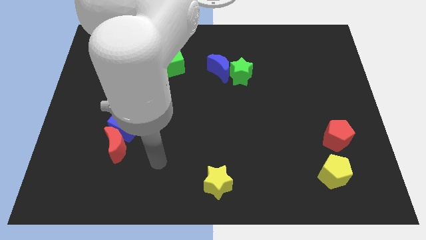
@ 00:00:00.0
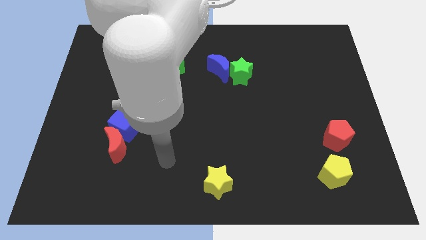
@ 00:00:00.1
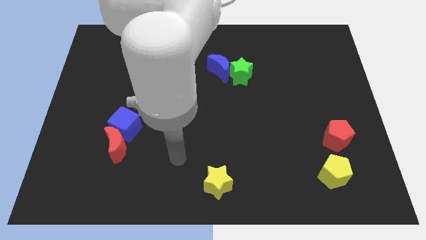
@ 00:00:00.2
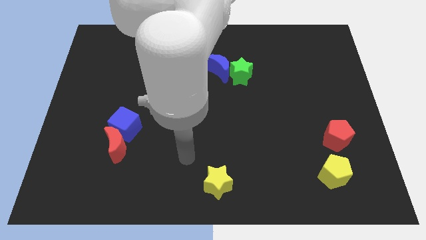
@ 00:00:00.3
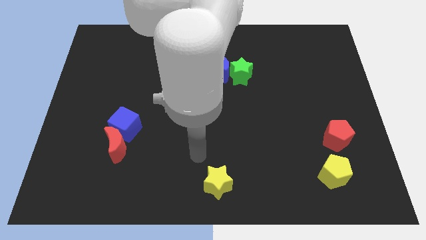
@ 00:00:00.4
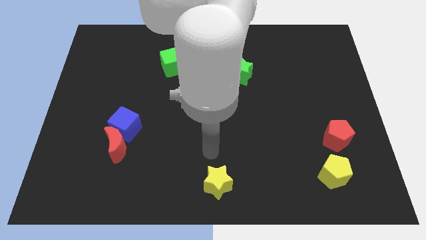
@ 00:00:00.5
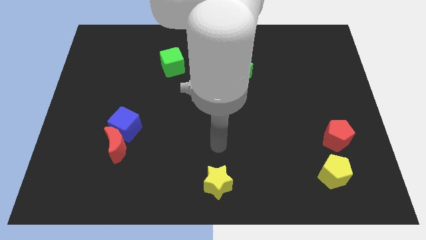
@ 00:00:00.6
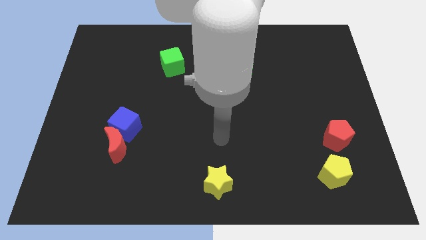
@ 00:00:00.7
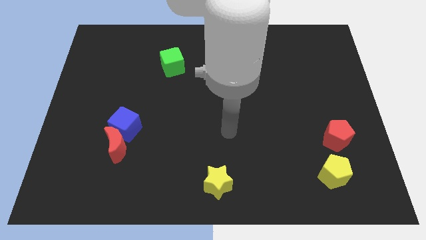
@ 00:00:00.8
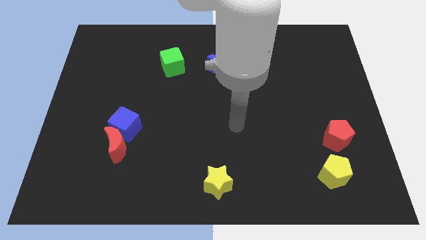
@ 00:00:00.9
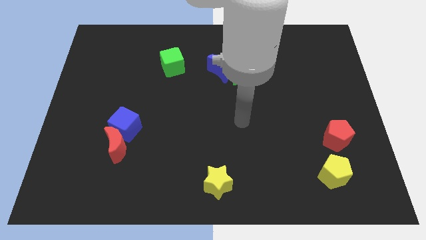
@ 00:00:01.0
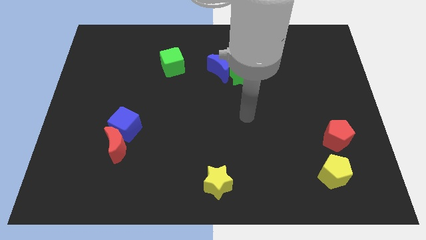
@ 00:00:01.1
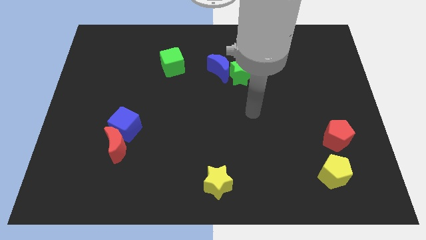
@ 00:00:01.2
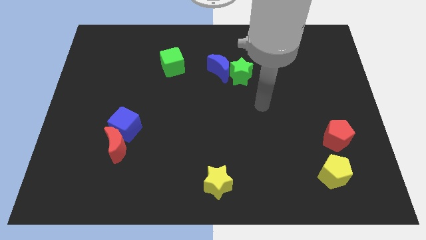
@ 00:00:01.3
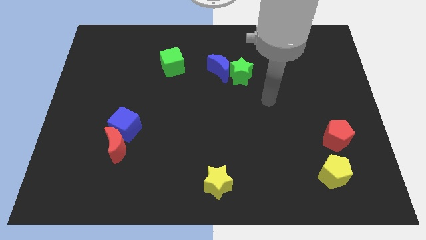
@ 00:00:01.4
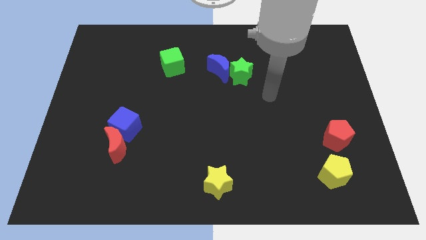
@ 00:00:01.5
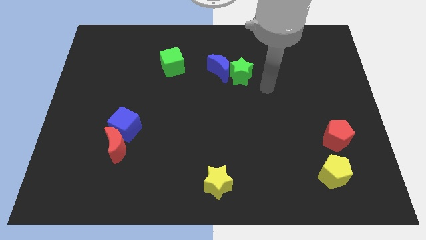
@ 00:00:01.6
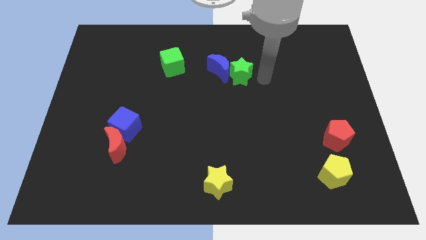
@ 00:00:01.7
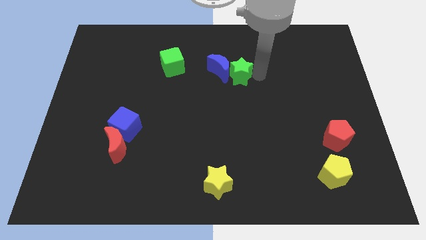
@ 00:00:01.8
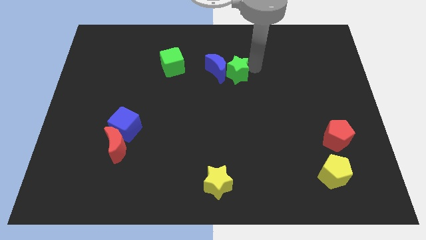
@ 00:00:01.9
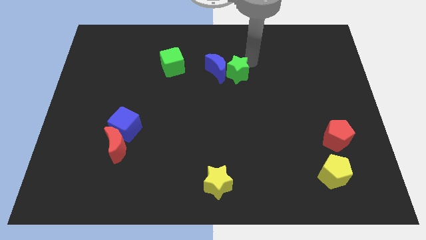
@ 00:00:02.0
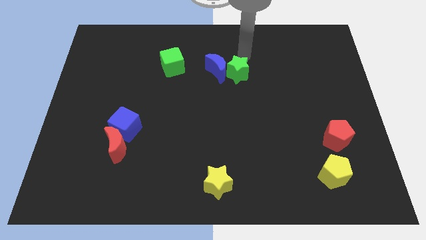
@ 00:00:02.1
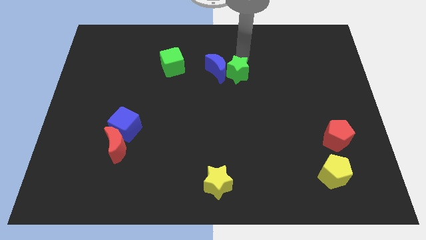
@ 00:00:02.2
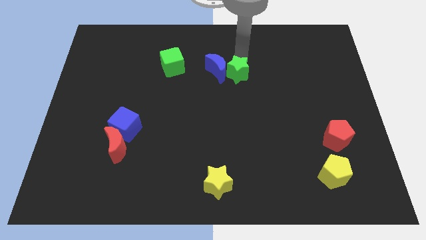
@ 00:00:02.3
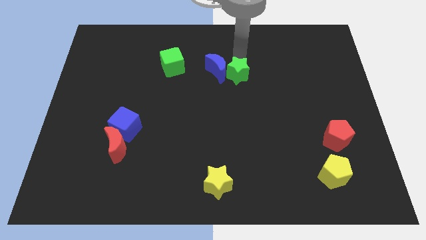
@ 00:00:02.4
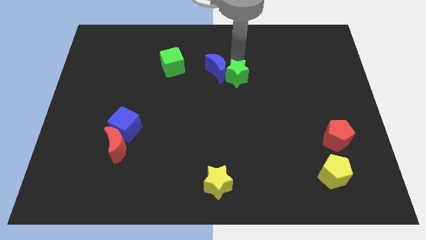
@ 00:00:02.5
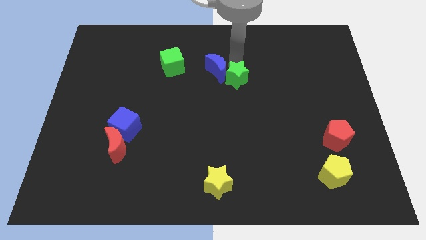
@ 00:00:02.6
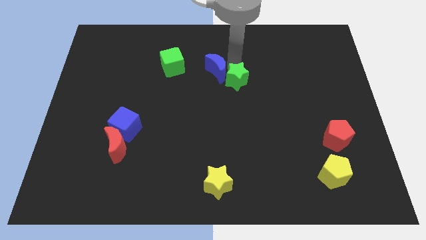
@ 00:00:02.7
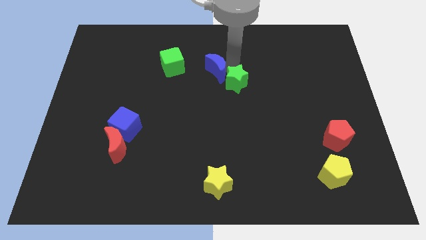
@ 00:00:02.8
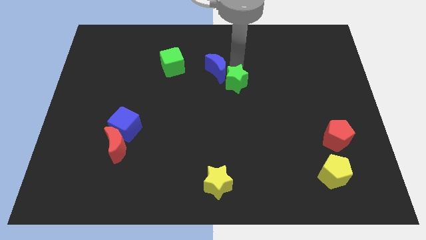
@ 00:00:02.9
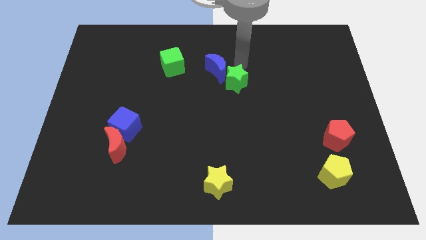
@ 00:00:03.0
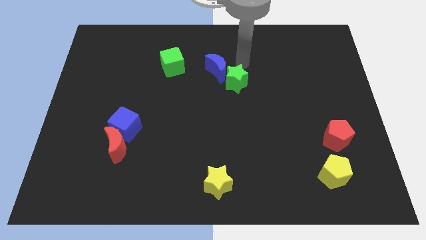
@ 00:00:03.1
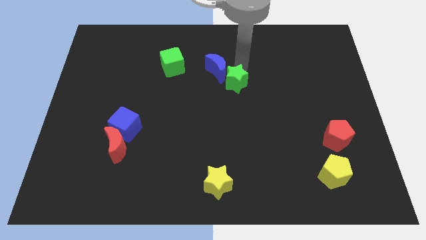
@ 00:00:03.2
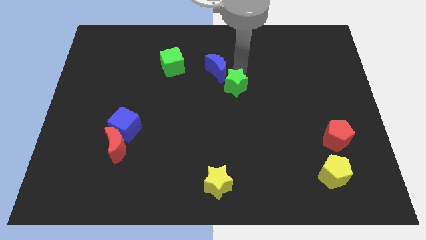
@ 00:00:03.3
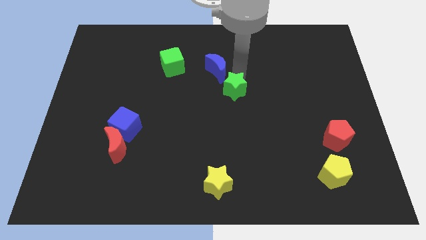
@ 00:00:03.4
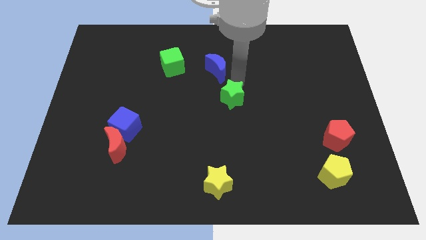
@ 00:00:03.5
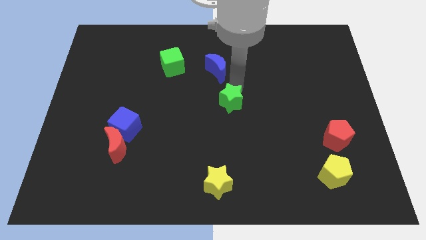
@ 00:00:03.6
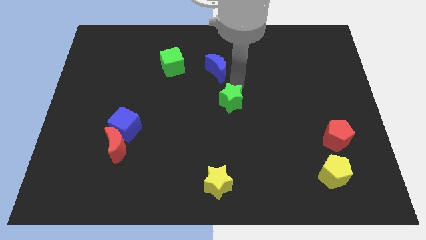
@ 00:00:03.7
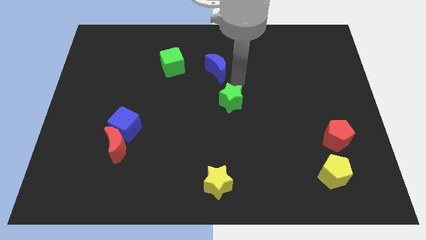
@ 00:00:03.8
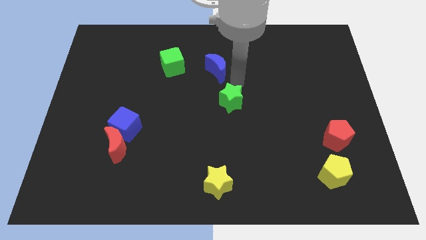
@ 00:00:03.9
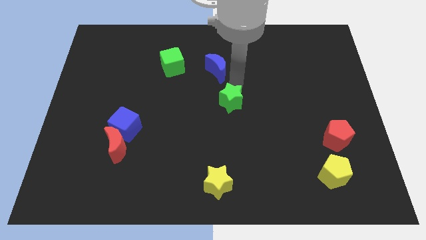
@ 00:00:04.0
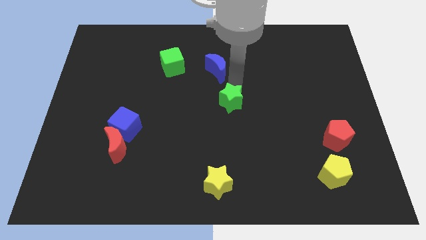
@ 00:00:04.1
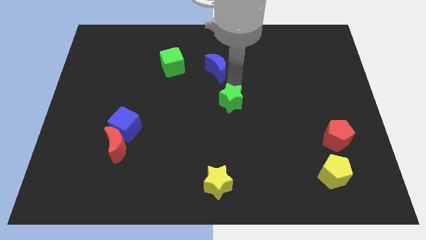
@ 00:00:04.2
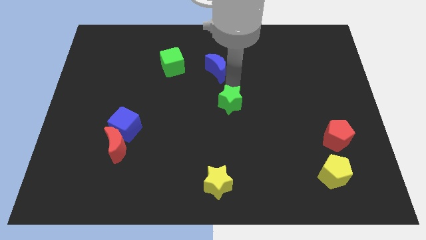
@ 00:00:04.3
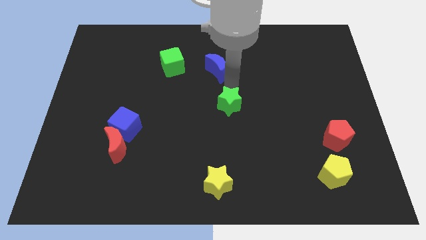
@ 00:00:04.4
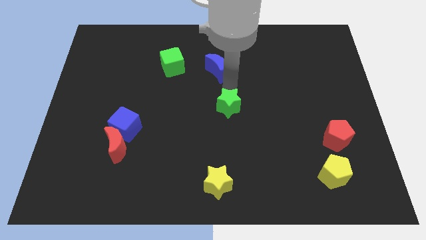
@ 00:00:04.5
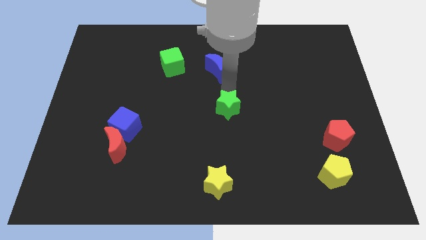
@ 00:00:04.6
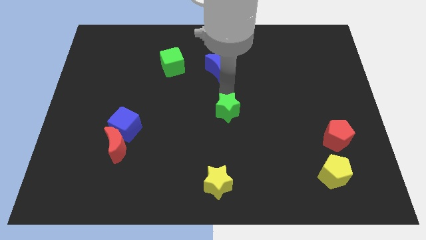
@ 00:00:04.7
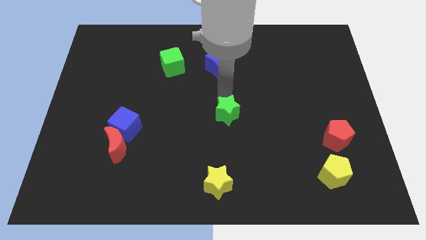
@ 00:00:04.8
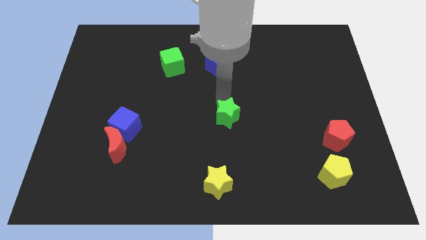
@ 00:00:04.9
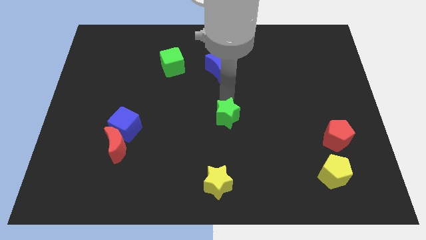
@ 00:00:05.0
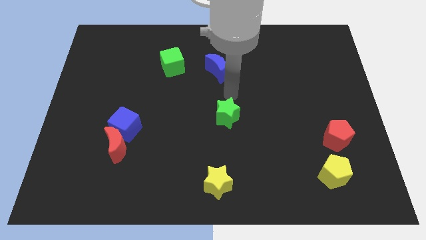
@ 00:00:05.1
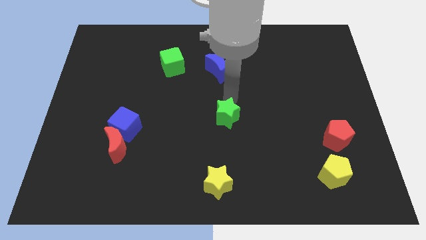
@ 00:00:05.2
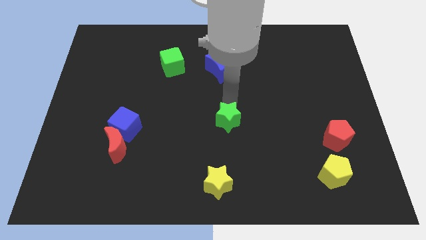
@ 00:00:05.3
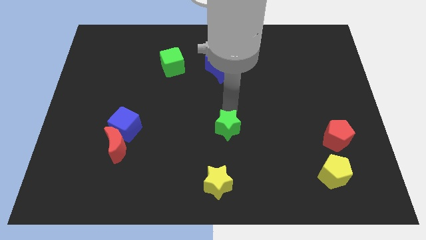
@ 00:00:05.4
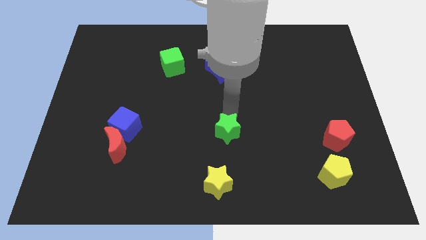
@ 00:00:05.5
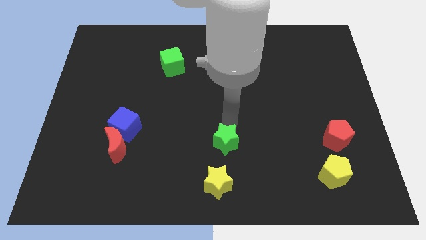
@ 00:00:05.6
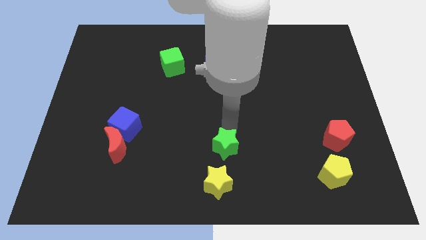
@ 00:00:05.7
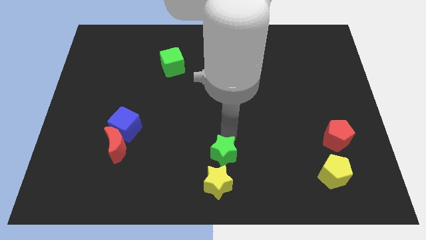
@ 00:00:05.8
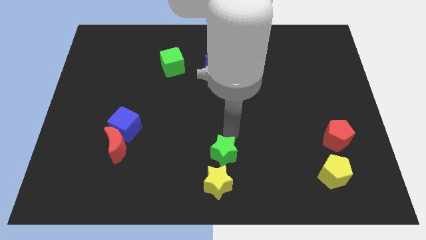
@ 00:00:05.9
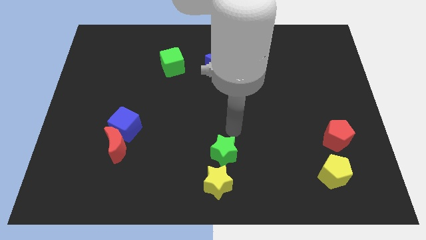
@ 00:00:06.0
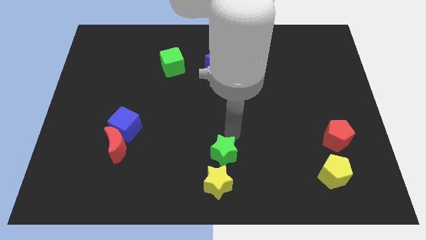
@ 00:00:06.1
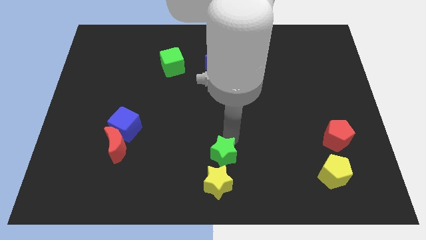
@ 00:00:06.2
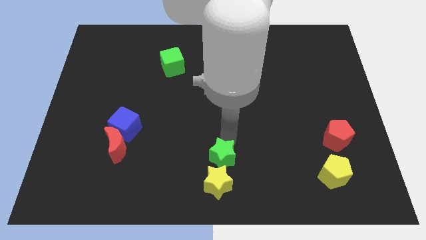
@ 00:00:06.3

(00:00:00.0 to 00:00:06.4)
slide the green star next to the yellow star

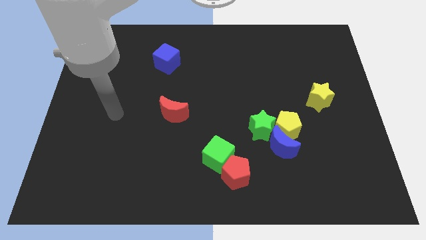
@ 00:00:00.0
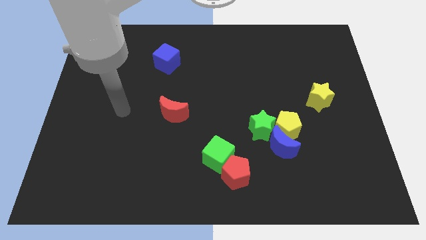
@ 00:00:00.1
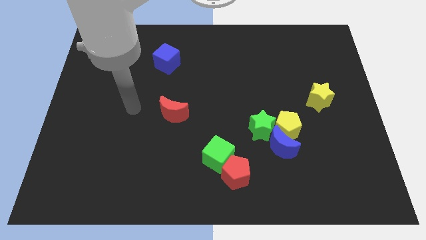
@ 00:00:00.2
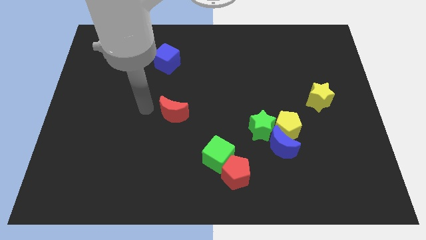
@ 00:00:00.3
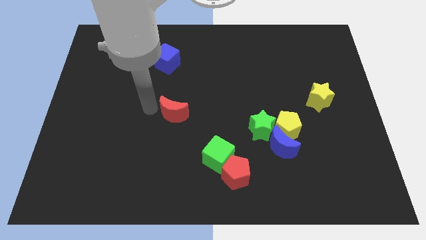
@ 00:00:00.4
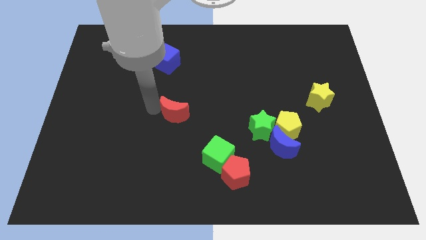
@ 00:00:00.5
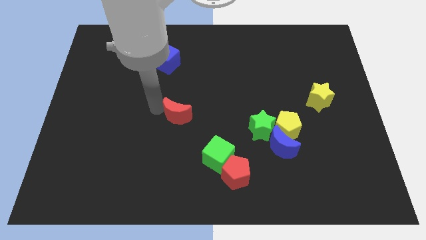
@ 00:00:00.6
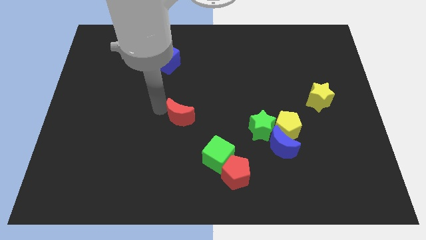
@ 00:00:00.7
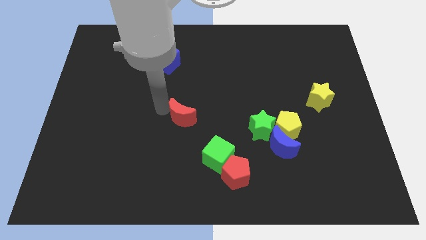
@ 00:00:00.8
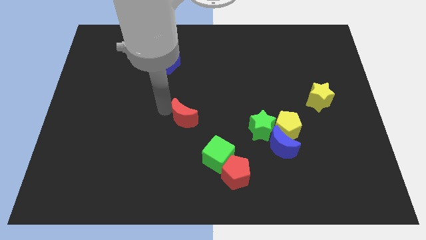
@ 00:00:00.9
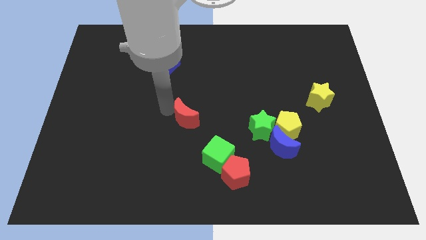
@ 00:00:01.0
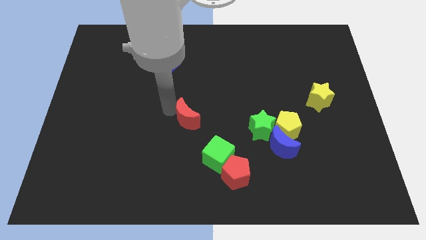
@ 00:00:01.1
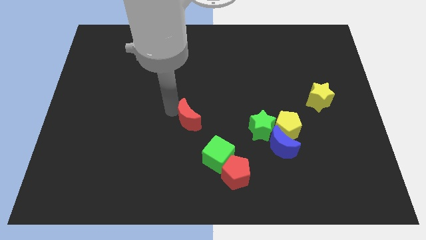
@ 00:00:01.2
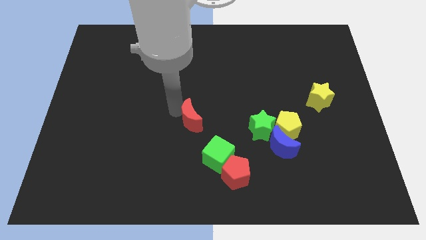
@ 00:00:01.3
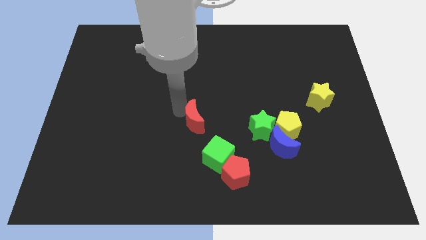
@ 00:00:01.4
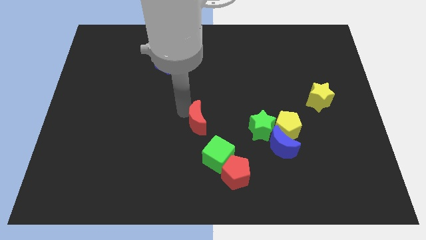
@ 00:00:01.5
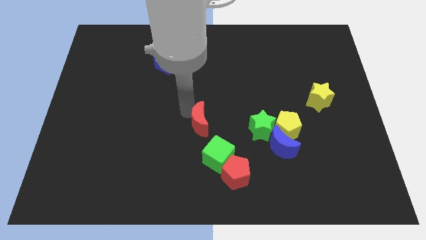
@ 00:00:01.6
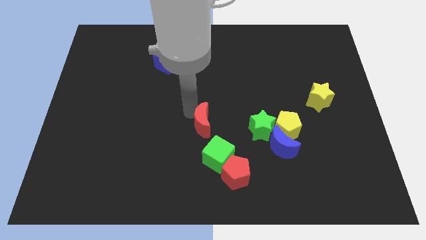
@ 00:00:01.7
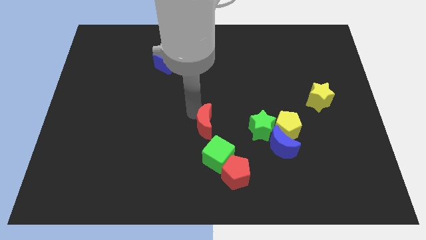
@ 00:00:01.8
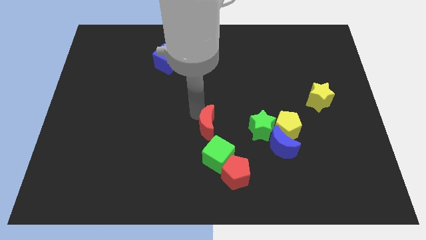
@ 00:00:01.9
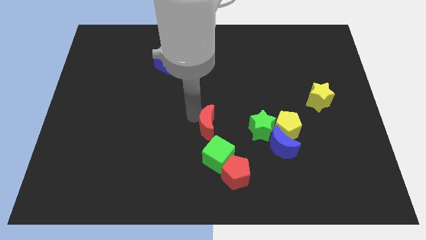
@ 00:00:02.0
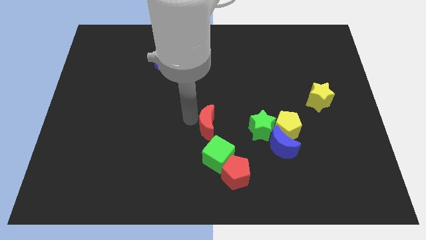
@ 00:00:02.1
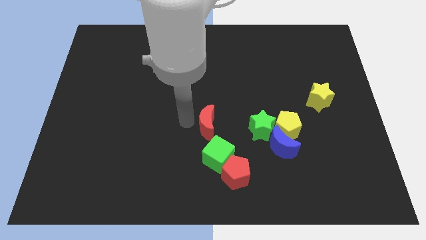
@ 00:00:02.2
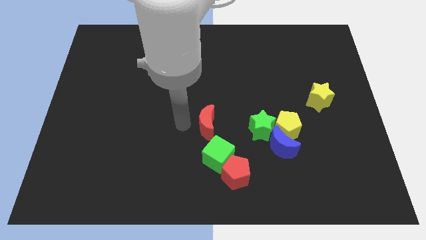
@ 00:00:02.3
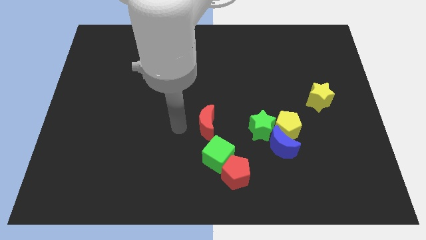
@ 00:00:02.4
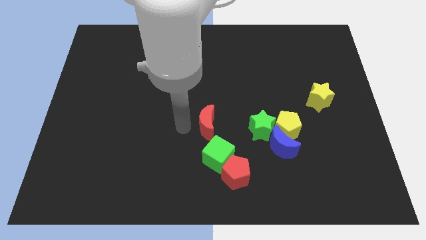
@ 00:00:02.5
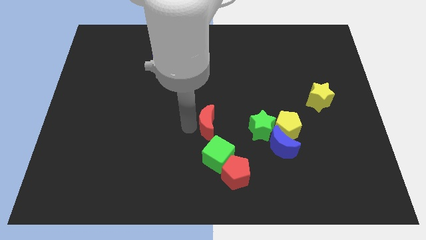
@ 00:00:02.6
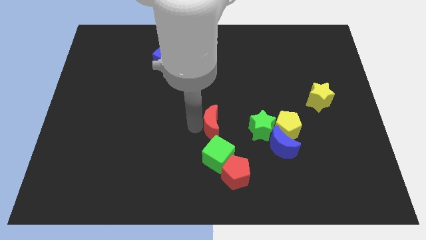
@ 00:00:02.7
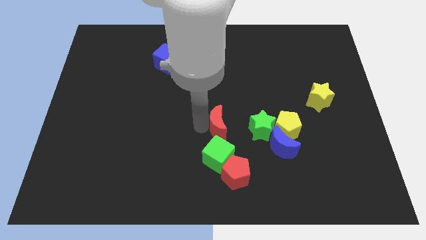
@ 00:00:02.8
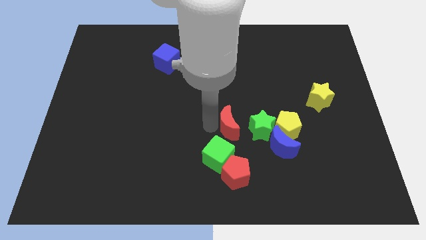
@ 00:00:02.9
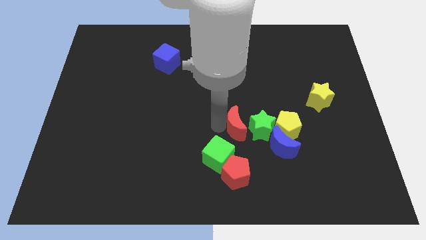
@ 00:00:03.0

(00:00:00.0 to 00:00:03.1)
slide the red moon towards the green star
